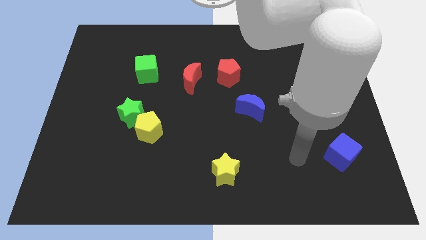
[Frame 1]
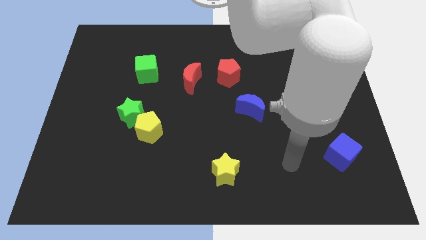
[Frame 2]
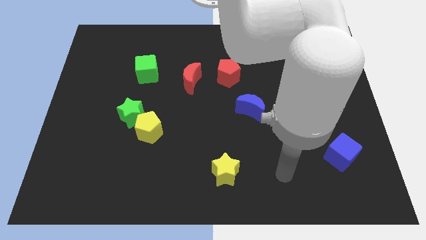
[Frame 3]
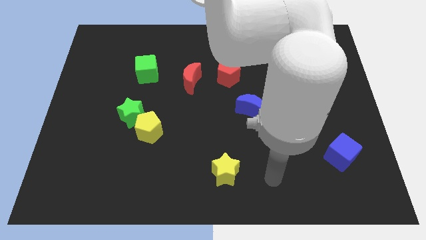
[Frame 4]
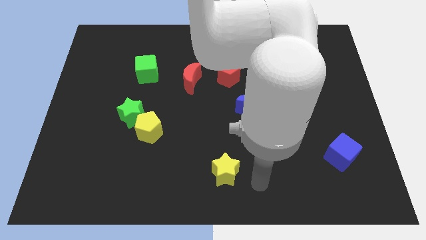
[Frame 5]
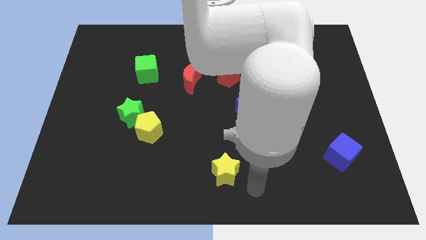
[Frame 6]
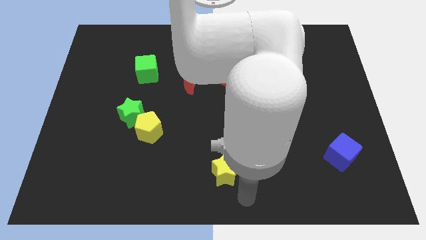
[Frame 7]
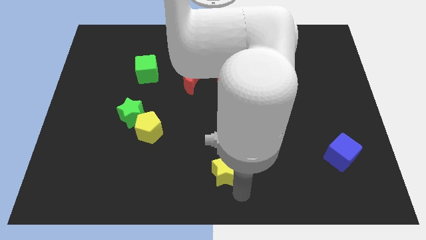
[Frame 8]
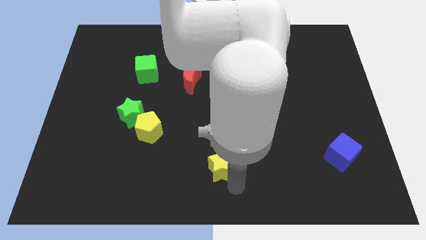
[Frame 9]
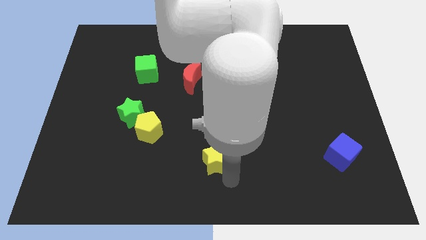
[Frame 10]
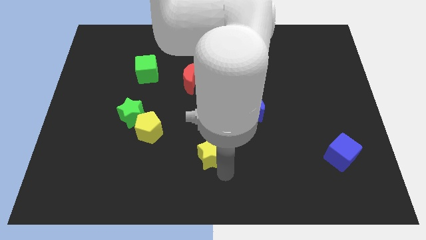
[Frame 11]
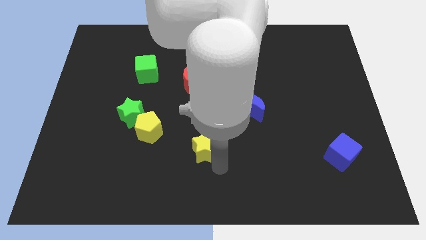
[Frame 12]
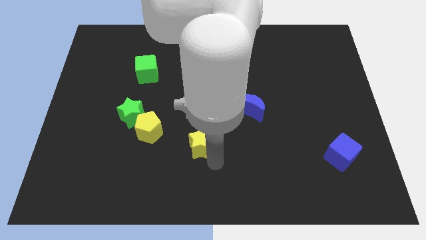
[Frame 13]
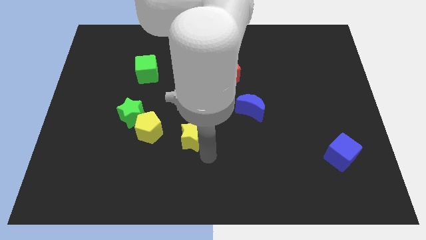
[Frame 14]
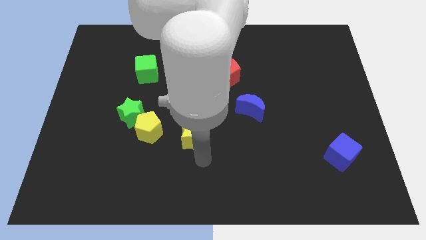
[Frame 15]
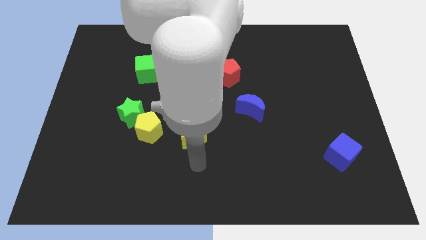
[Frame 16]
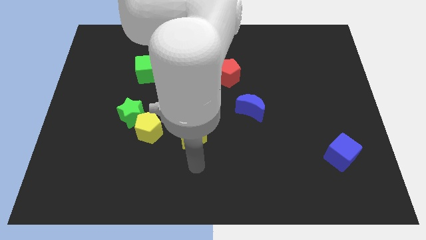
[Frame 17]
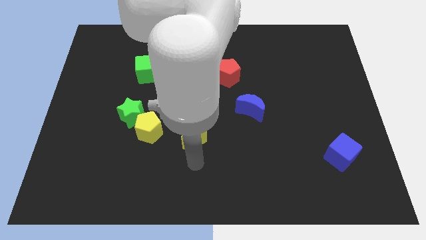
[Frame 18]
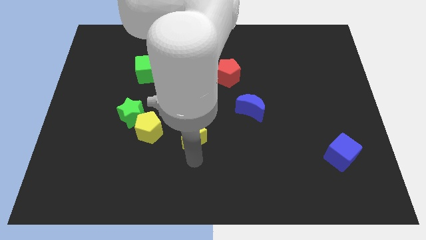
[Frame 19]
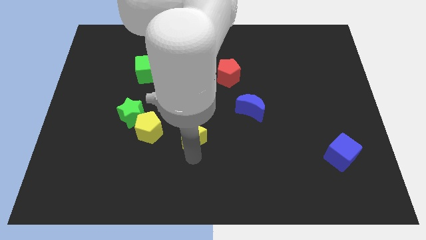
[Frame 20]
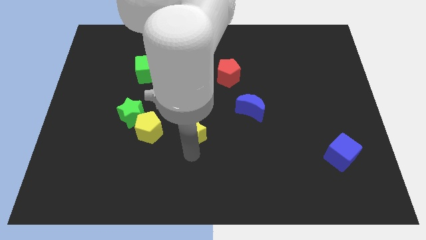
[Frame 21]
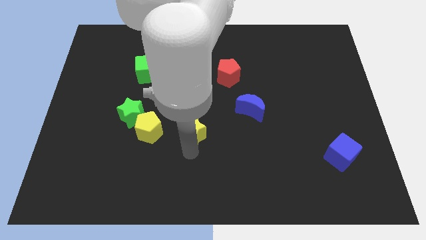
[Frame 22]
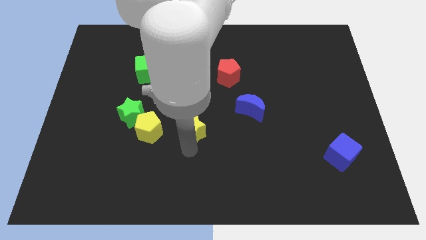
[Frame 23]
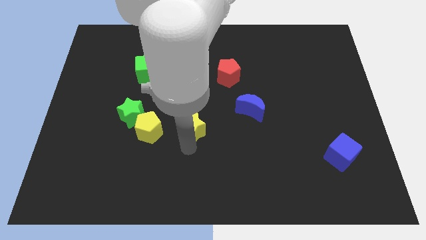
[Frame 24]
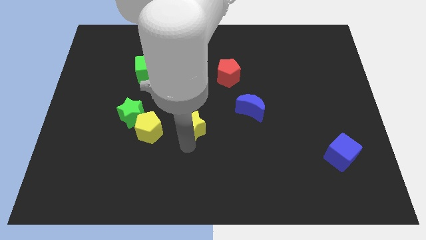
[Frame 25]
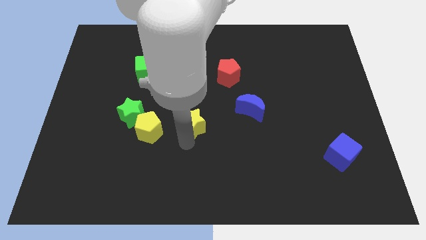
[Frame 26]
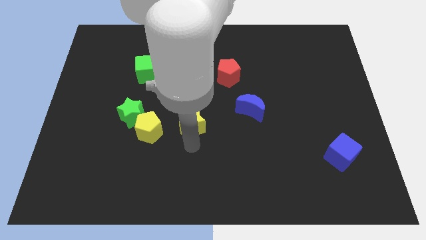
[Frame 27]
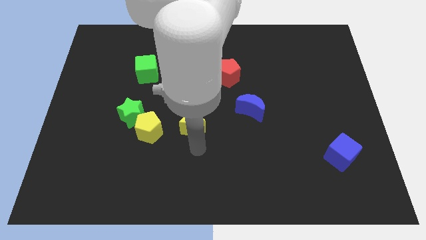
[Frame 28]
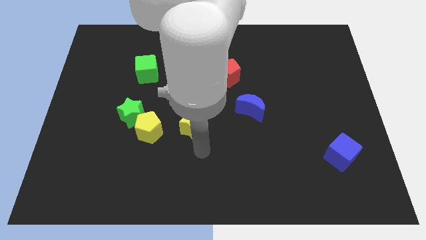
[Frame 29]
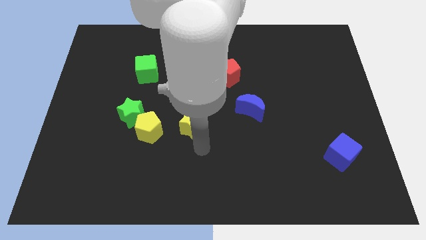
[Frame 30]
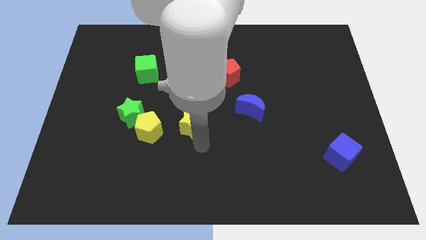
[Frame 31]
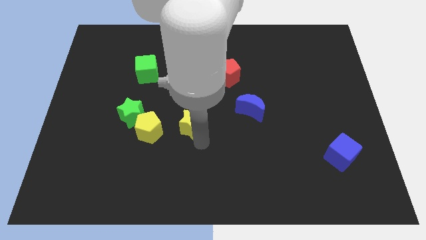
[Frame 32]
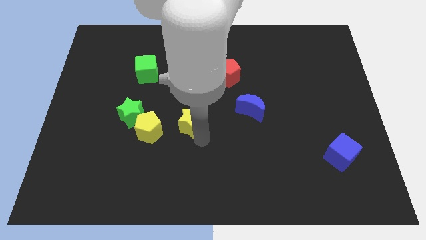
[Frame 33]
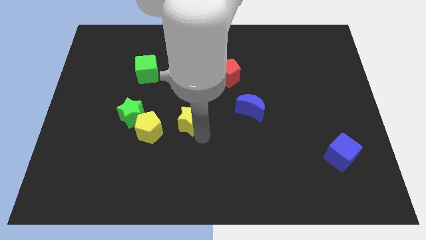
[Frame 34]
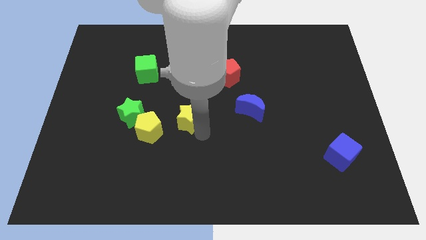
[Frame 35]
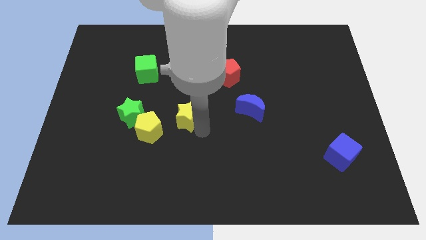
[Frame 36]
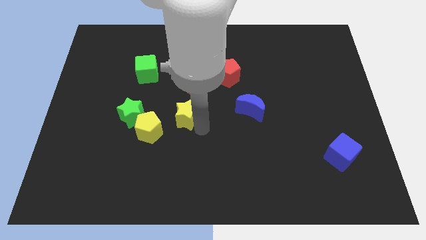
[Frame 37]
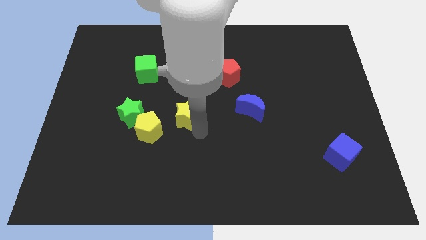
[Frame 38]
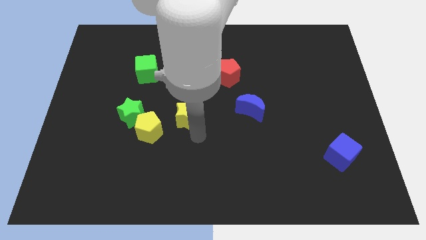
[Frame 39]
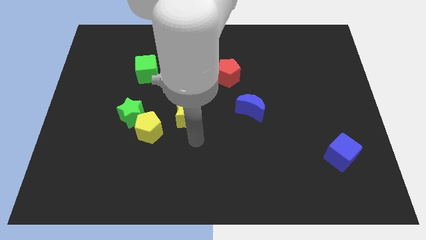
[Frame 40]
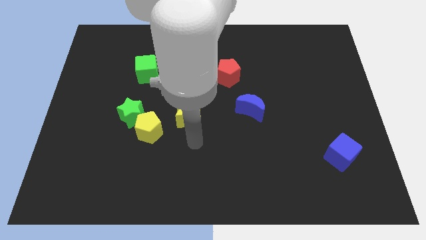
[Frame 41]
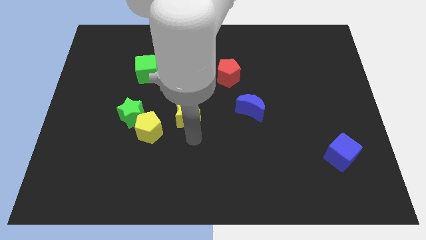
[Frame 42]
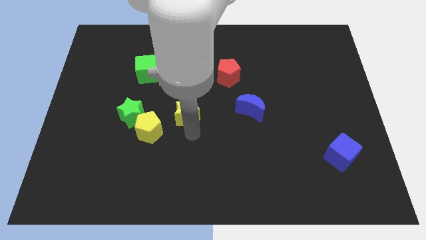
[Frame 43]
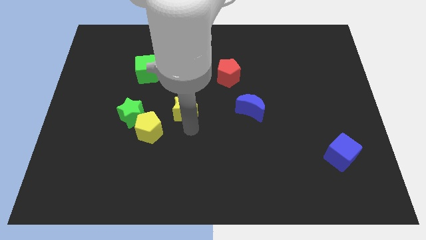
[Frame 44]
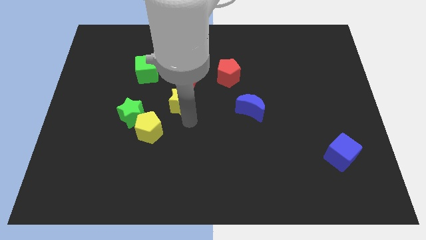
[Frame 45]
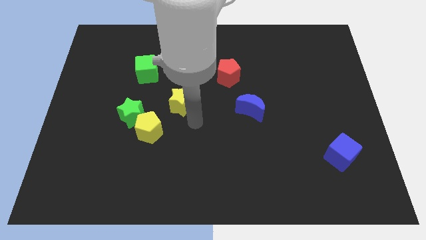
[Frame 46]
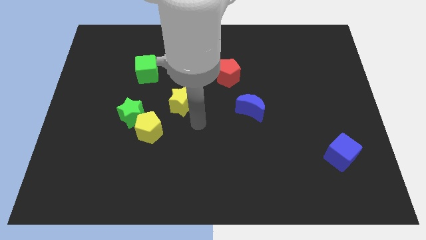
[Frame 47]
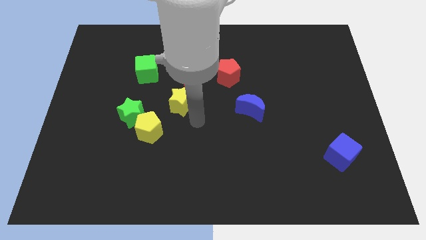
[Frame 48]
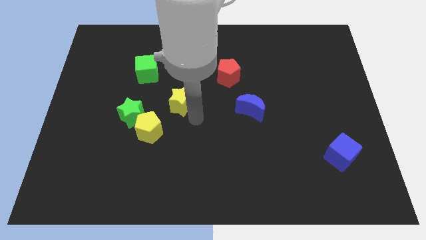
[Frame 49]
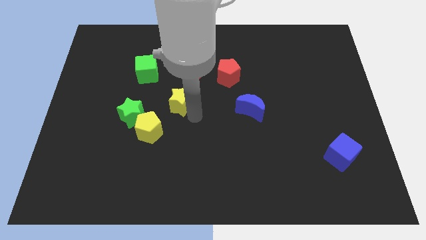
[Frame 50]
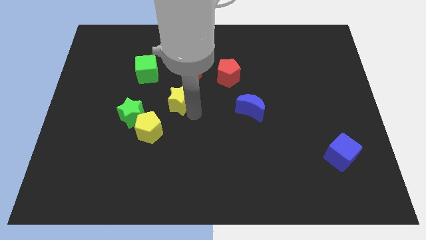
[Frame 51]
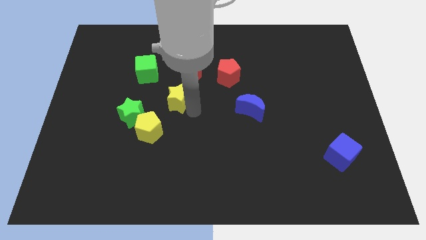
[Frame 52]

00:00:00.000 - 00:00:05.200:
put the yellow star diagonally down and to the right of the green cube

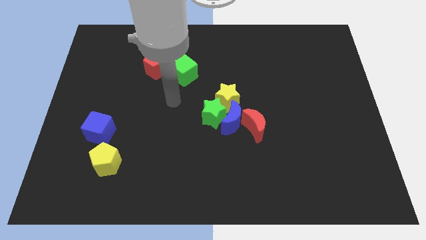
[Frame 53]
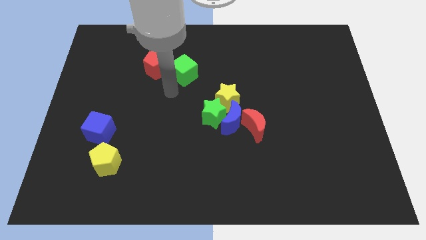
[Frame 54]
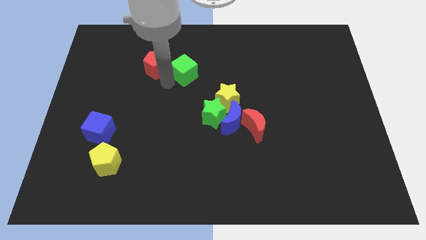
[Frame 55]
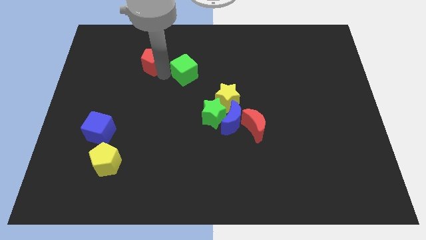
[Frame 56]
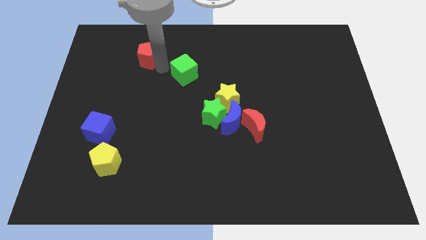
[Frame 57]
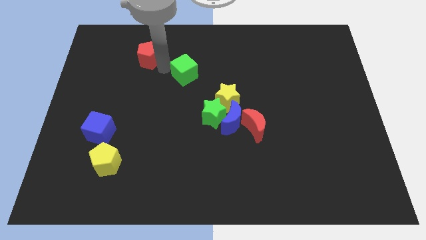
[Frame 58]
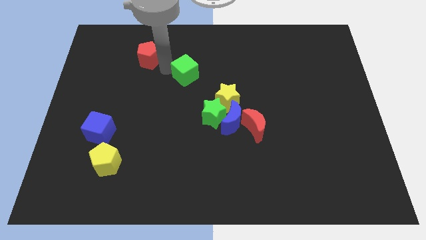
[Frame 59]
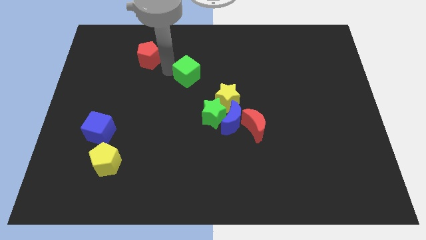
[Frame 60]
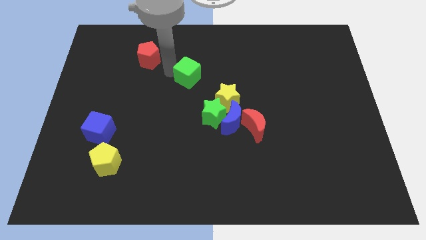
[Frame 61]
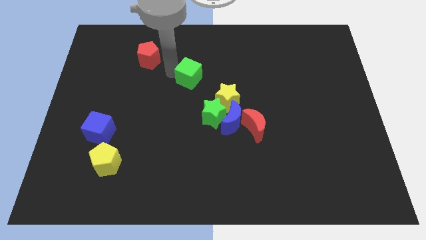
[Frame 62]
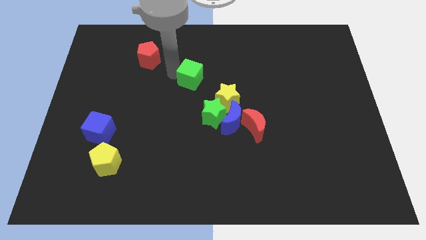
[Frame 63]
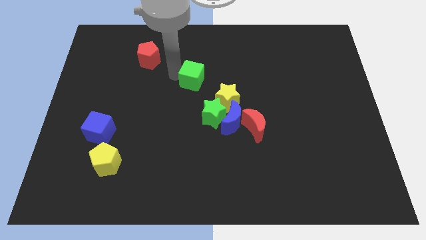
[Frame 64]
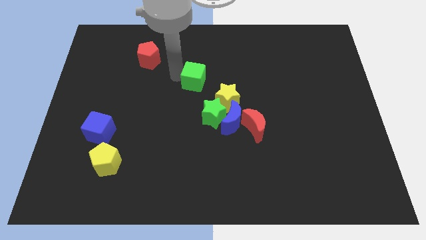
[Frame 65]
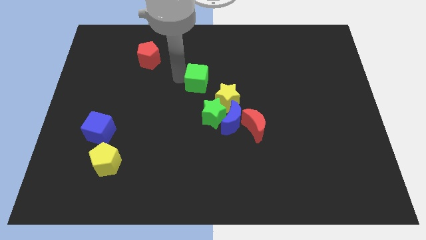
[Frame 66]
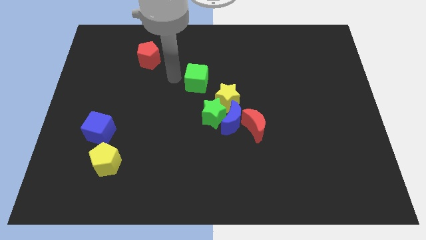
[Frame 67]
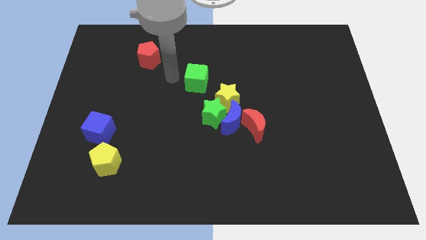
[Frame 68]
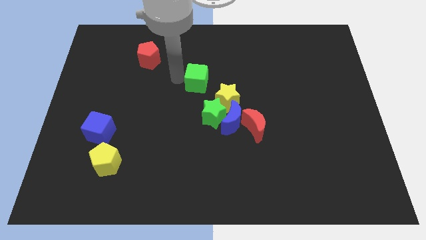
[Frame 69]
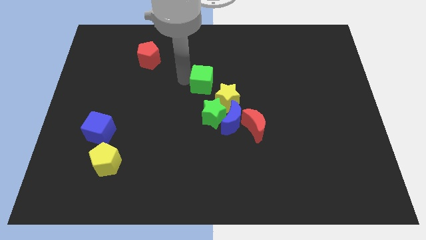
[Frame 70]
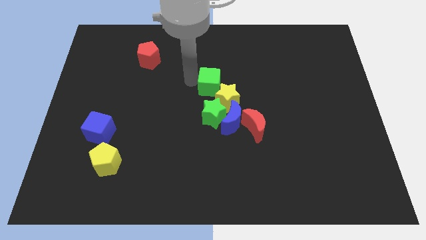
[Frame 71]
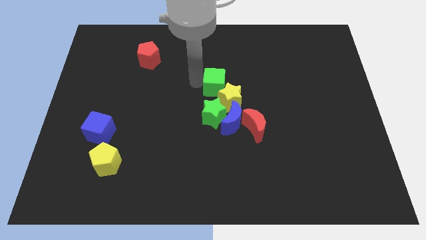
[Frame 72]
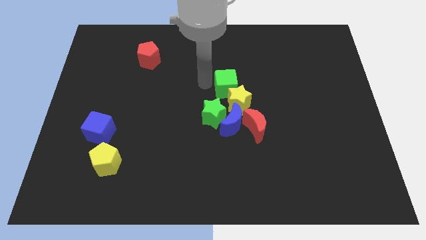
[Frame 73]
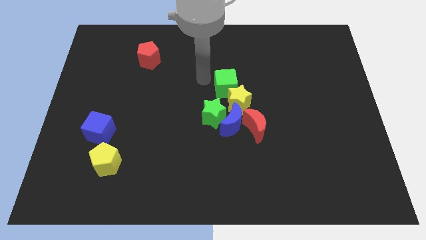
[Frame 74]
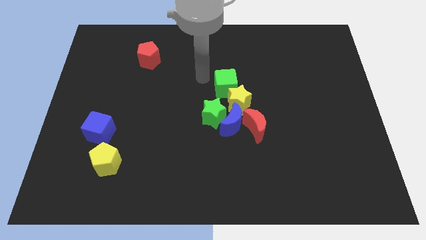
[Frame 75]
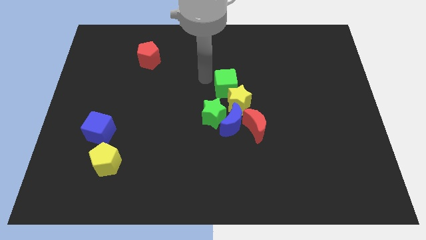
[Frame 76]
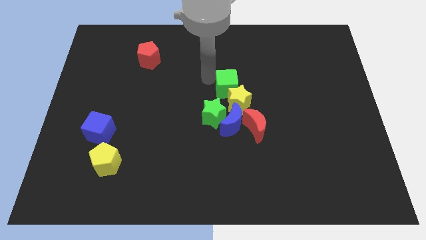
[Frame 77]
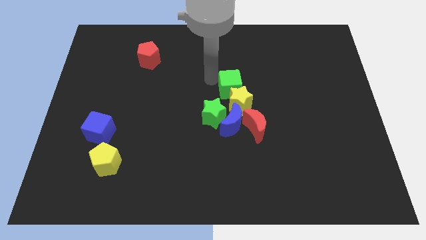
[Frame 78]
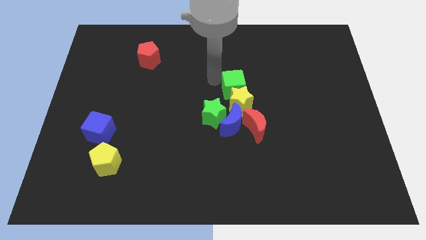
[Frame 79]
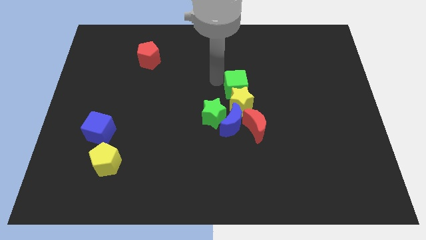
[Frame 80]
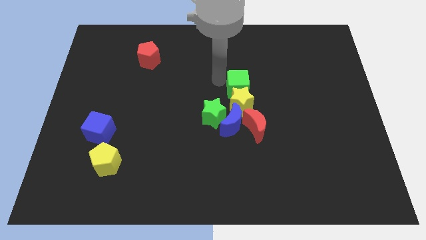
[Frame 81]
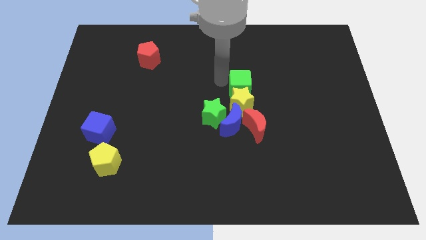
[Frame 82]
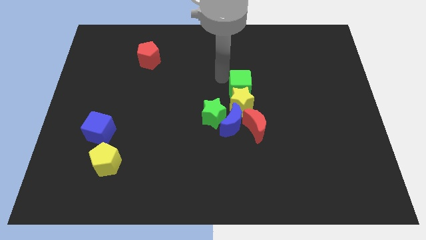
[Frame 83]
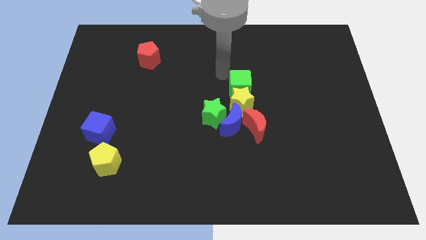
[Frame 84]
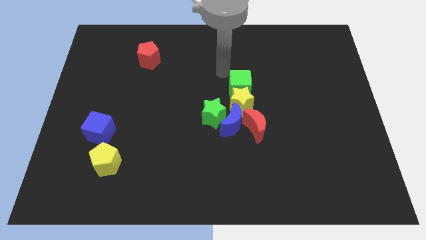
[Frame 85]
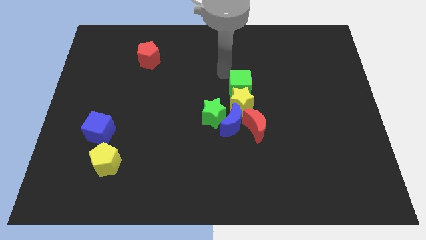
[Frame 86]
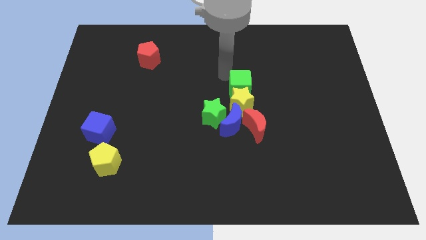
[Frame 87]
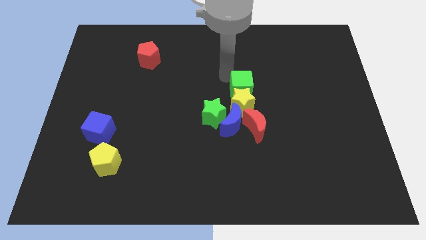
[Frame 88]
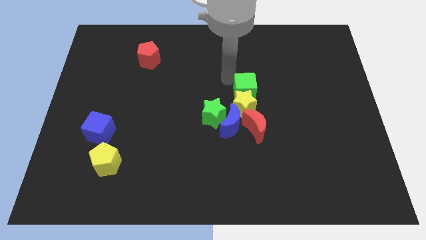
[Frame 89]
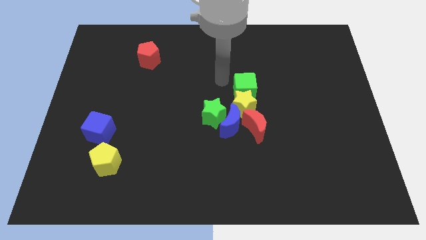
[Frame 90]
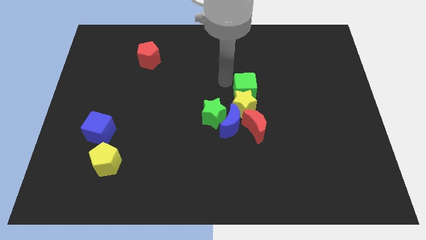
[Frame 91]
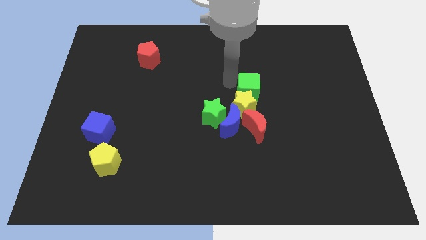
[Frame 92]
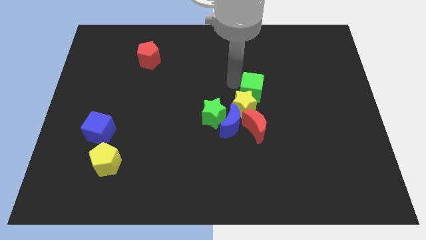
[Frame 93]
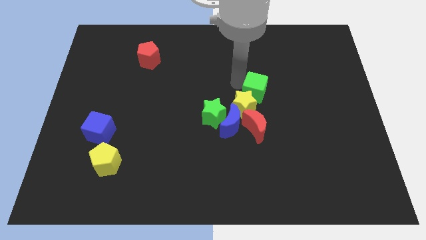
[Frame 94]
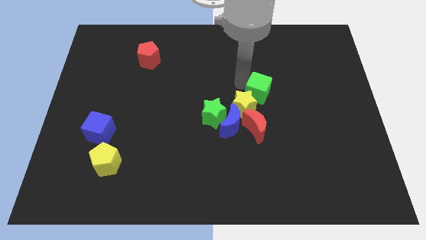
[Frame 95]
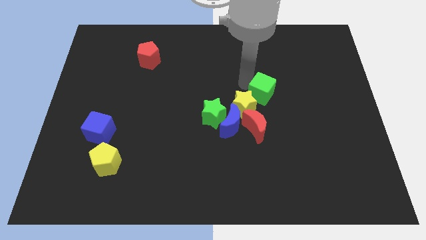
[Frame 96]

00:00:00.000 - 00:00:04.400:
push the green cube to the right of the yellow star
